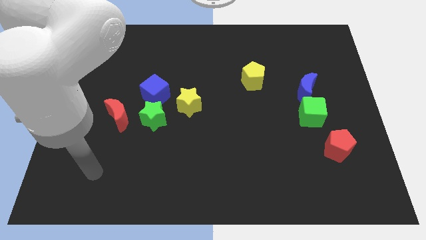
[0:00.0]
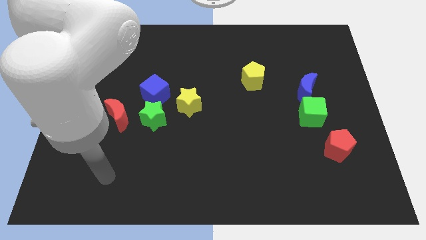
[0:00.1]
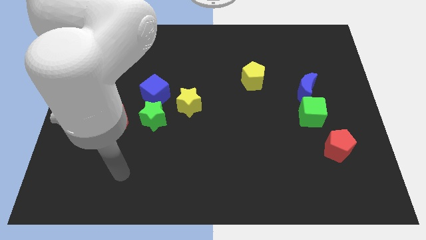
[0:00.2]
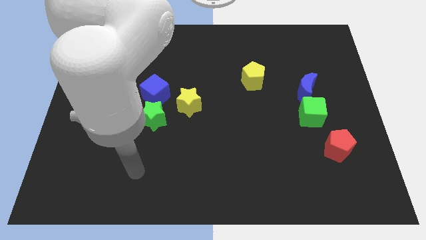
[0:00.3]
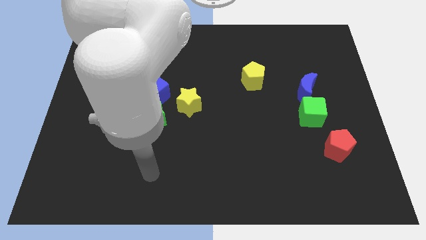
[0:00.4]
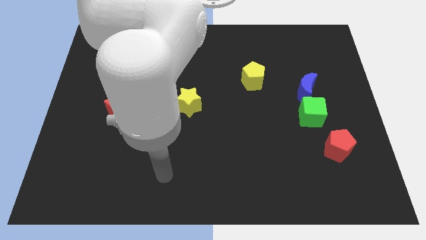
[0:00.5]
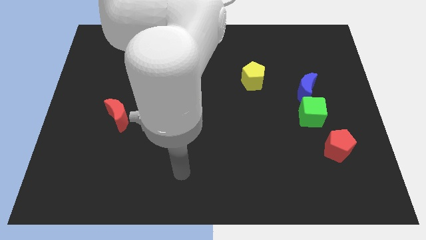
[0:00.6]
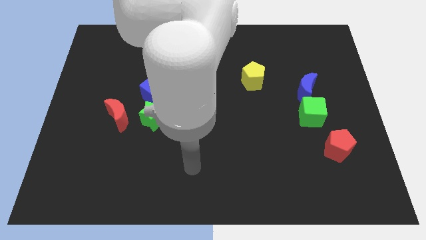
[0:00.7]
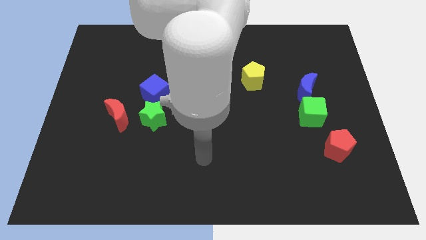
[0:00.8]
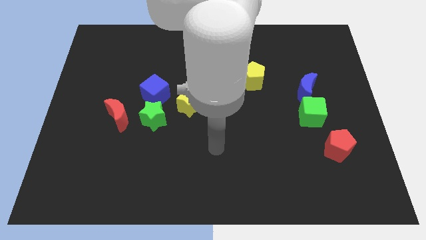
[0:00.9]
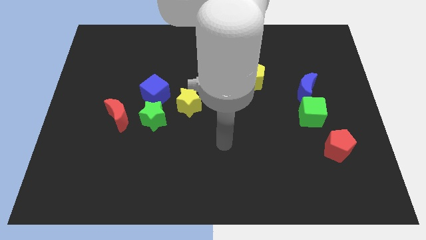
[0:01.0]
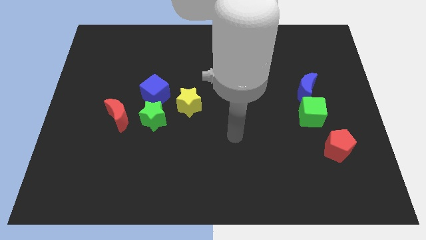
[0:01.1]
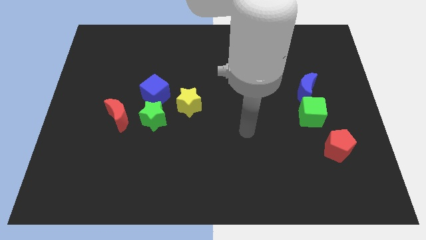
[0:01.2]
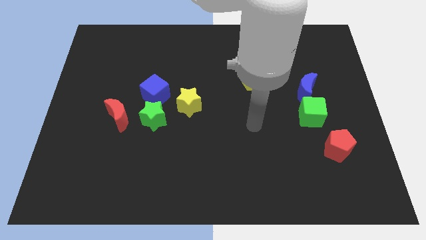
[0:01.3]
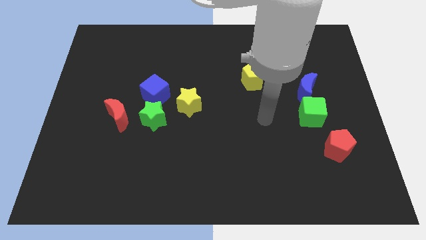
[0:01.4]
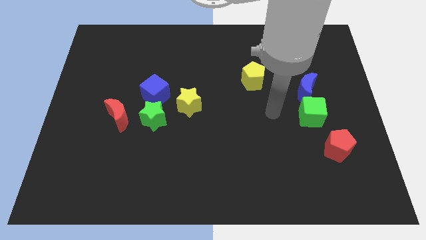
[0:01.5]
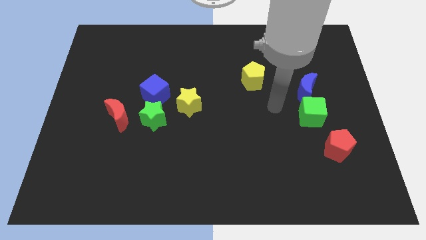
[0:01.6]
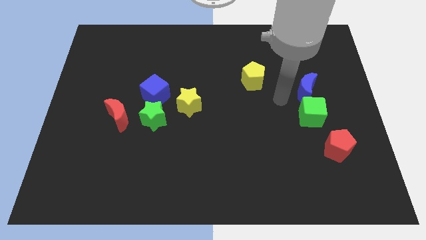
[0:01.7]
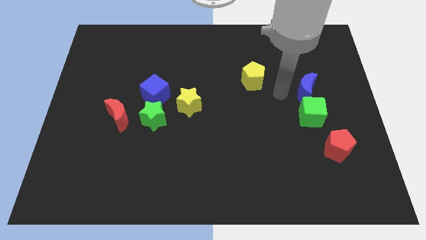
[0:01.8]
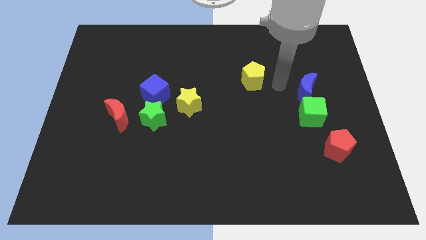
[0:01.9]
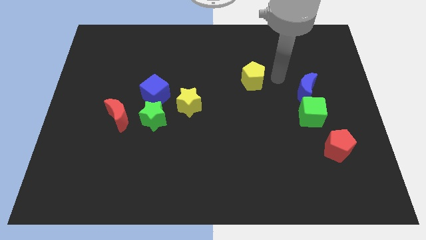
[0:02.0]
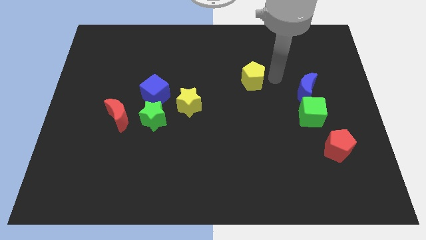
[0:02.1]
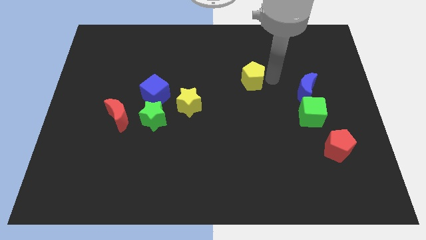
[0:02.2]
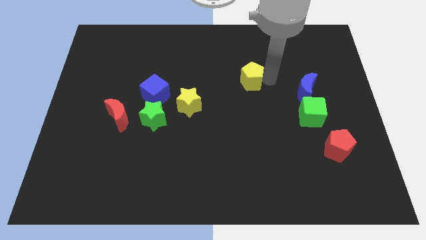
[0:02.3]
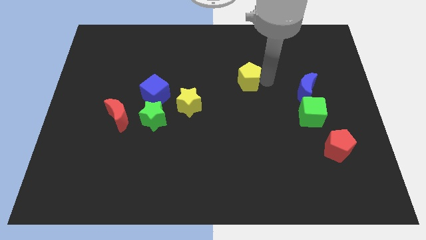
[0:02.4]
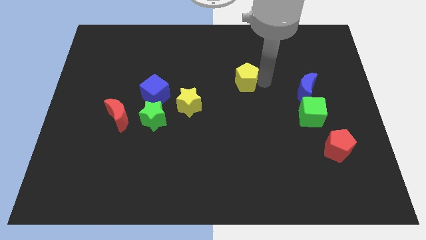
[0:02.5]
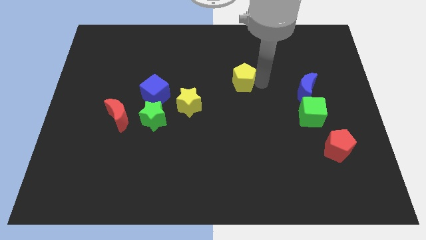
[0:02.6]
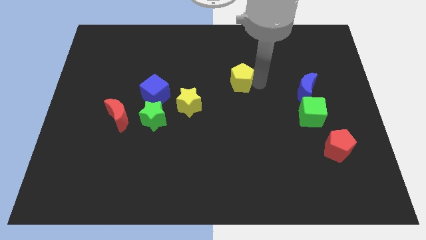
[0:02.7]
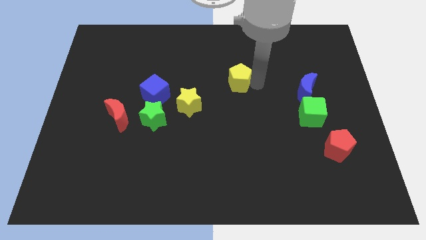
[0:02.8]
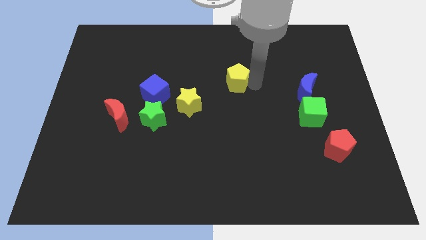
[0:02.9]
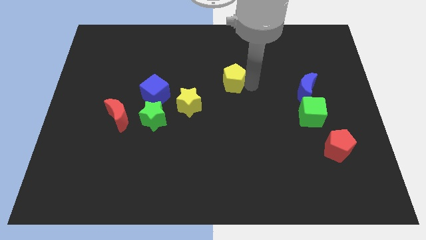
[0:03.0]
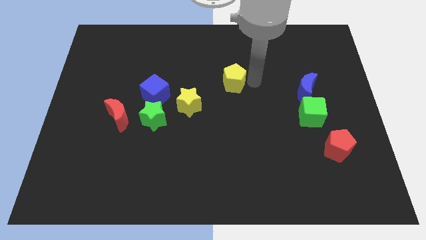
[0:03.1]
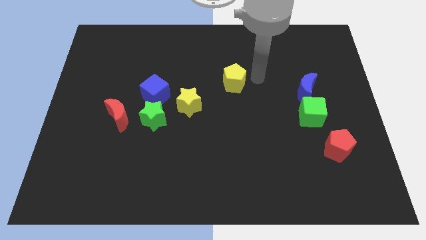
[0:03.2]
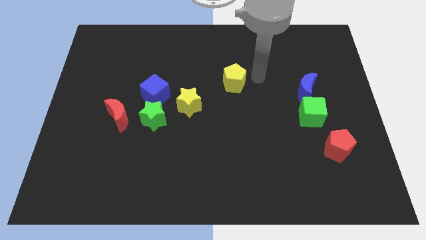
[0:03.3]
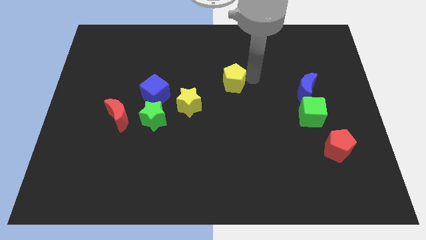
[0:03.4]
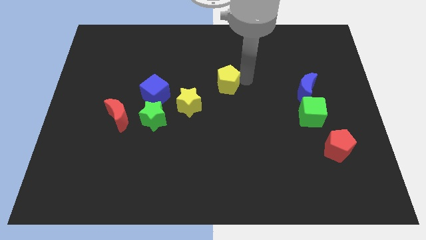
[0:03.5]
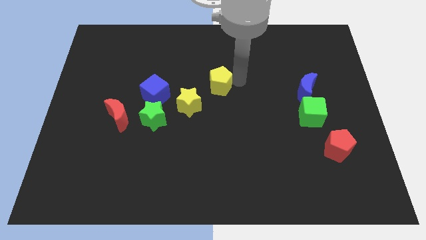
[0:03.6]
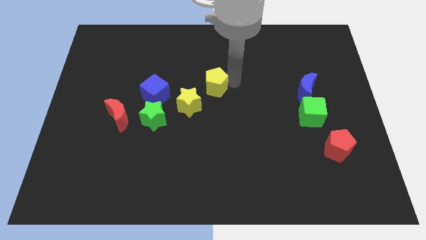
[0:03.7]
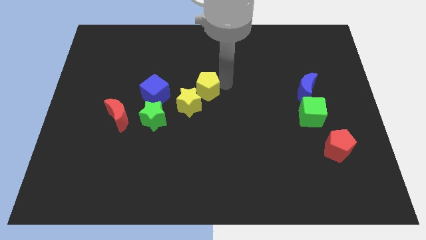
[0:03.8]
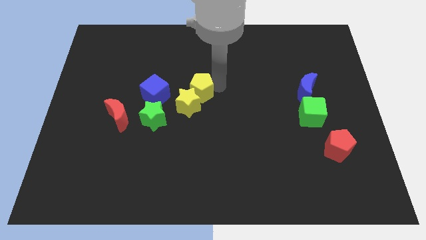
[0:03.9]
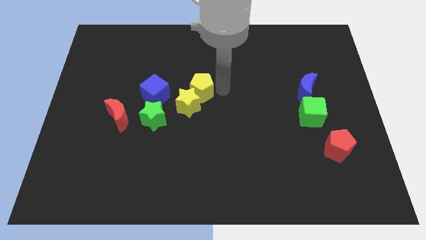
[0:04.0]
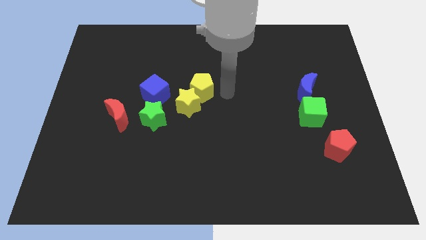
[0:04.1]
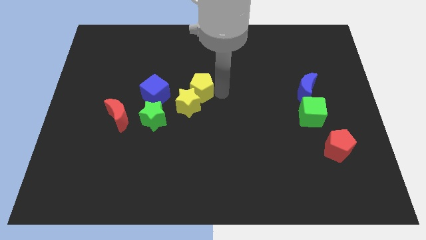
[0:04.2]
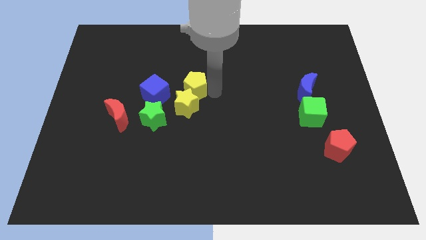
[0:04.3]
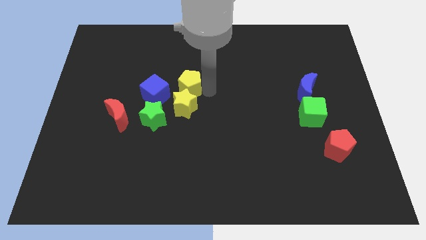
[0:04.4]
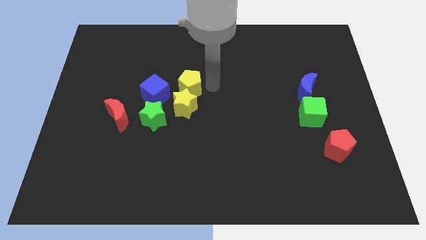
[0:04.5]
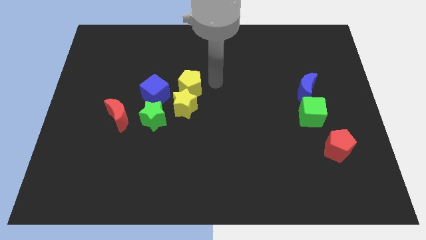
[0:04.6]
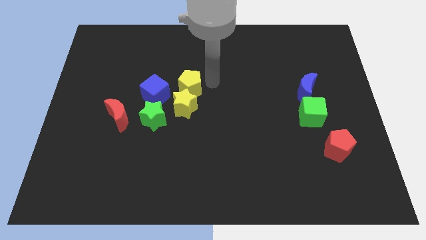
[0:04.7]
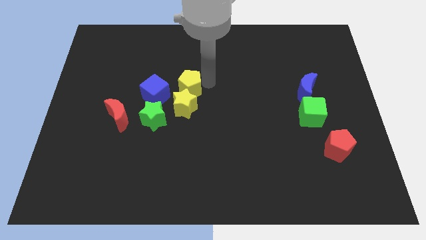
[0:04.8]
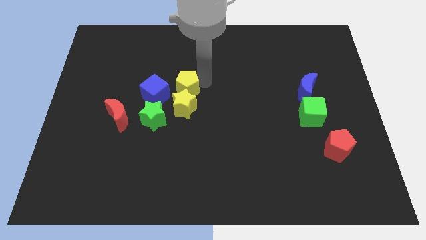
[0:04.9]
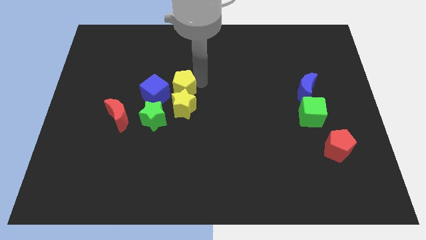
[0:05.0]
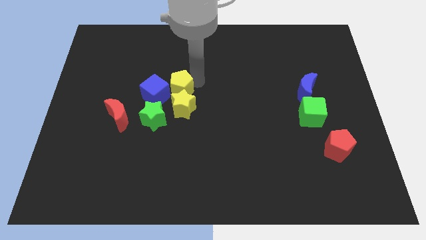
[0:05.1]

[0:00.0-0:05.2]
slide the yellow pentagon to the blue cube

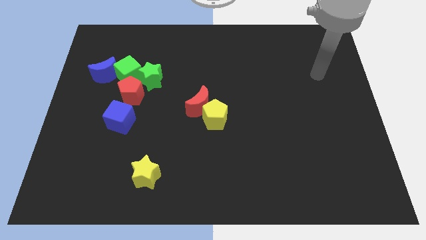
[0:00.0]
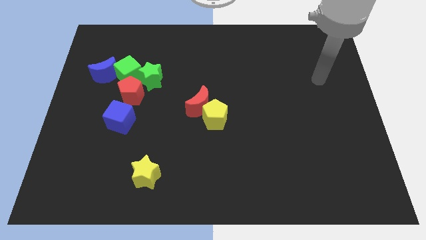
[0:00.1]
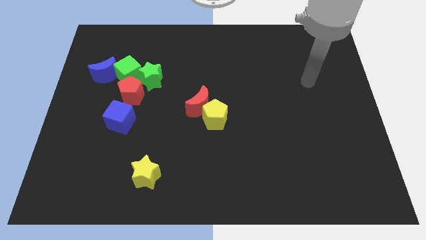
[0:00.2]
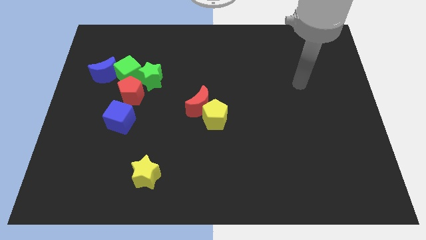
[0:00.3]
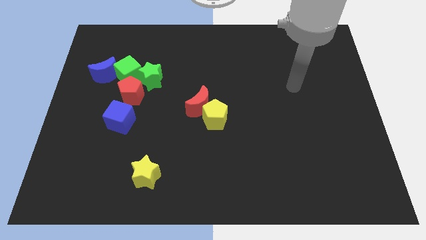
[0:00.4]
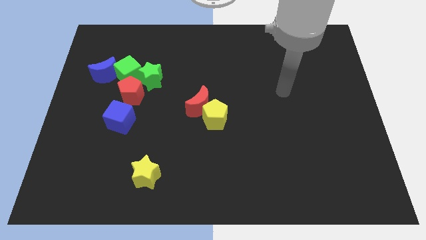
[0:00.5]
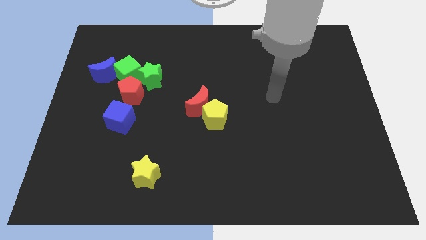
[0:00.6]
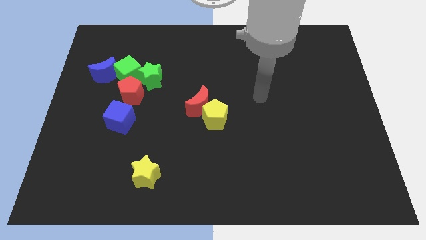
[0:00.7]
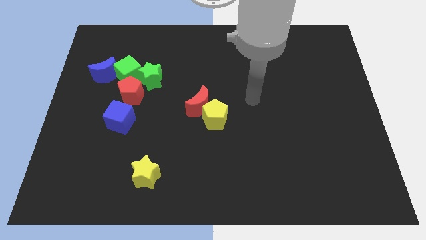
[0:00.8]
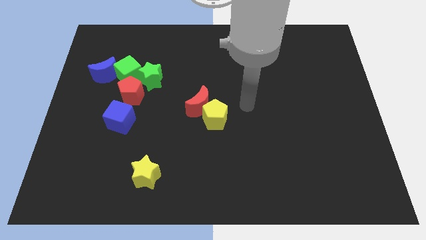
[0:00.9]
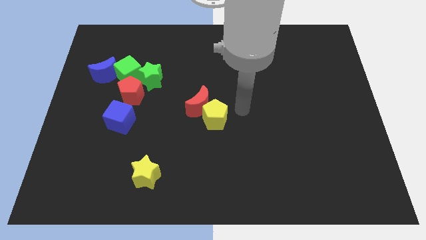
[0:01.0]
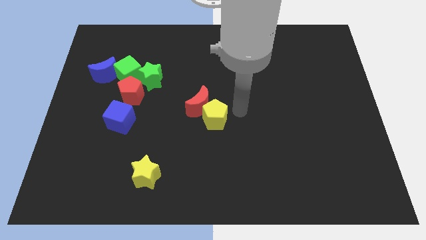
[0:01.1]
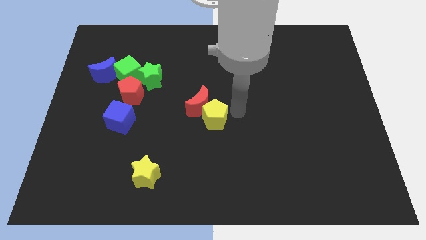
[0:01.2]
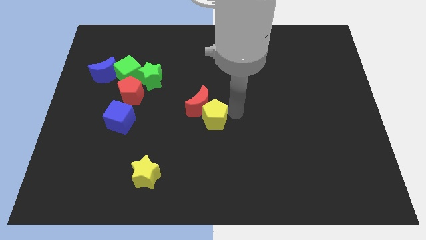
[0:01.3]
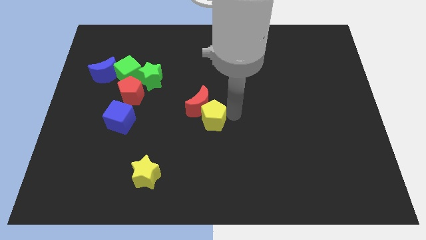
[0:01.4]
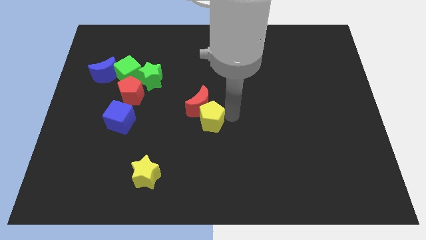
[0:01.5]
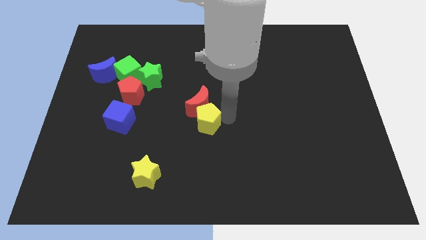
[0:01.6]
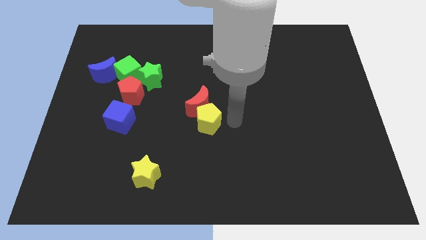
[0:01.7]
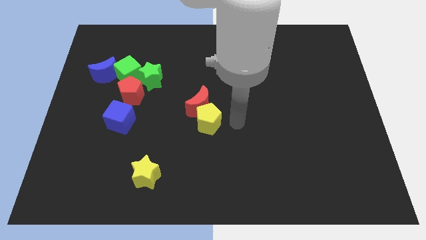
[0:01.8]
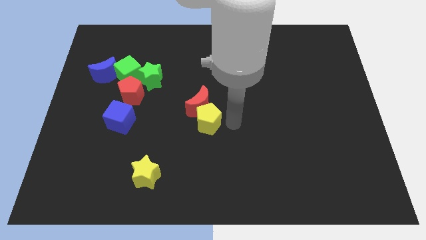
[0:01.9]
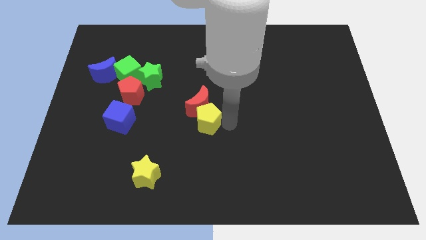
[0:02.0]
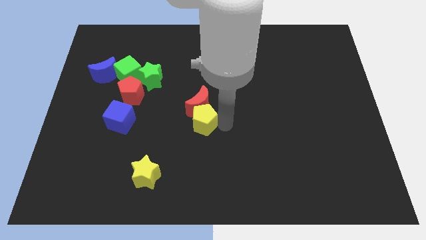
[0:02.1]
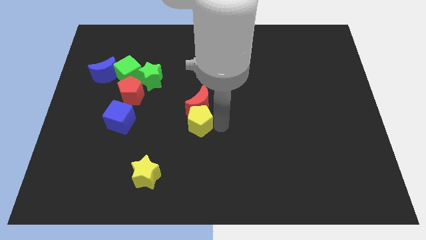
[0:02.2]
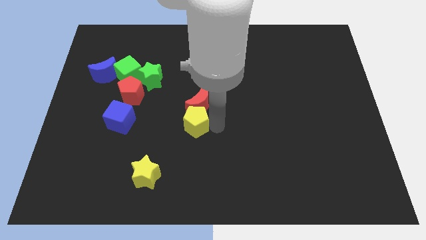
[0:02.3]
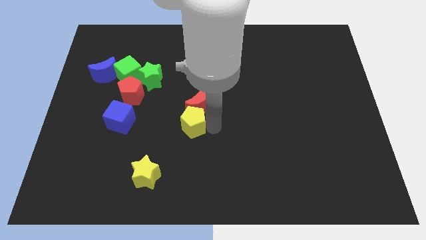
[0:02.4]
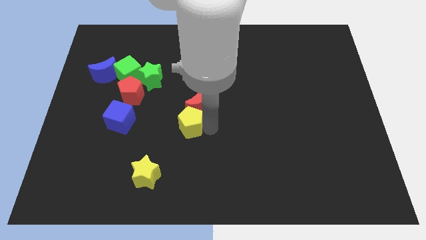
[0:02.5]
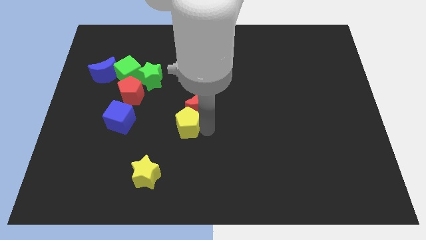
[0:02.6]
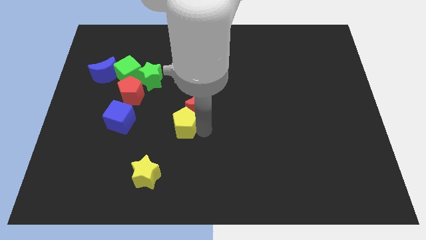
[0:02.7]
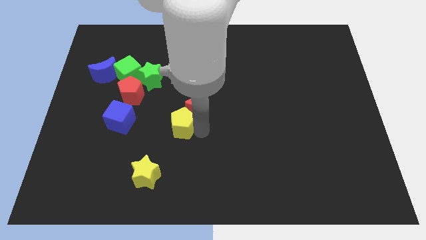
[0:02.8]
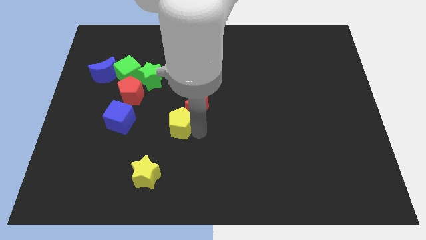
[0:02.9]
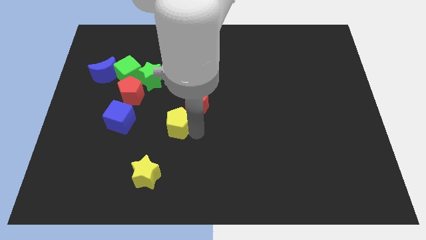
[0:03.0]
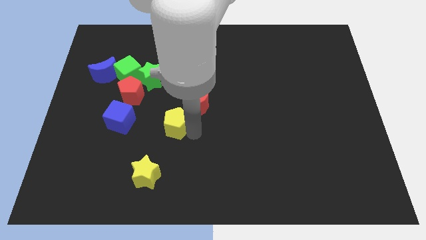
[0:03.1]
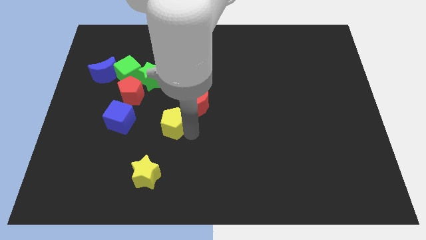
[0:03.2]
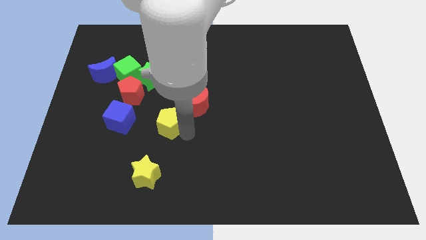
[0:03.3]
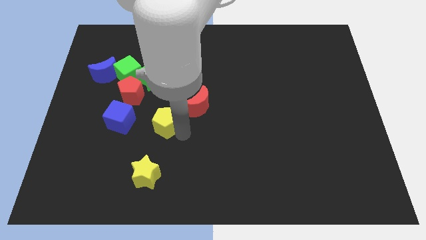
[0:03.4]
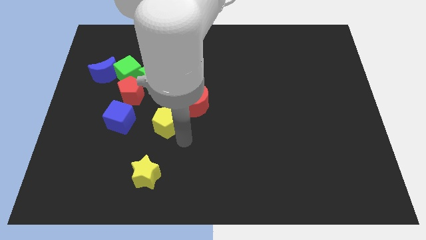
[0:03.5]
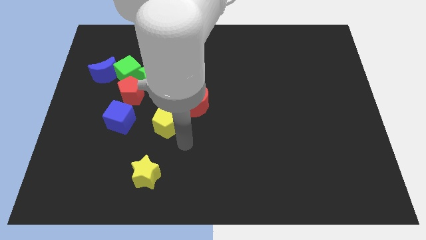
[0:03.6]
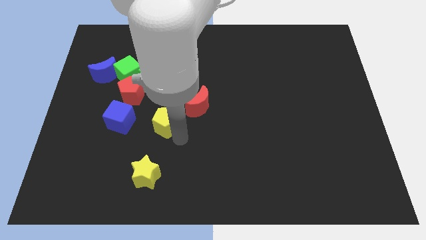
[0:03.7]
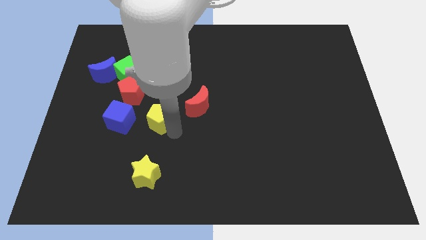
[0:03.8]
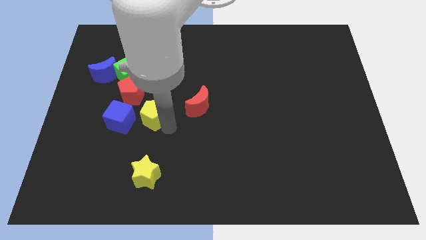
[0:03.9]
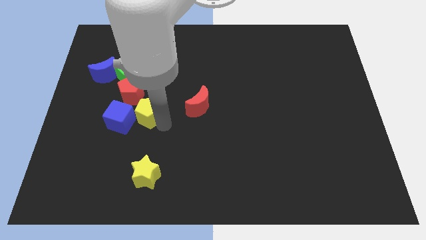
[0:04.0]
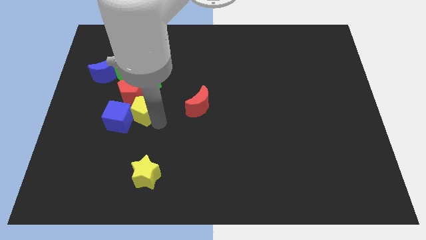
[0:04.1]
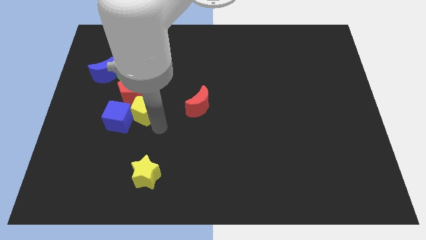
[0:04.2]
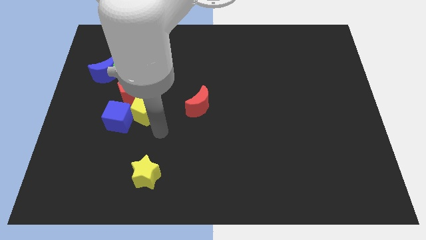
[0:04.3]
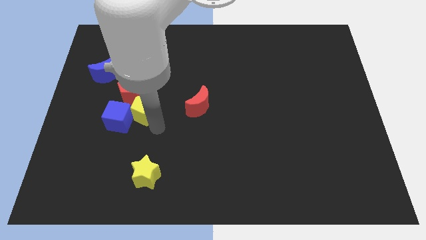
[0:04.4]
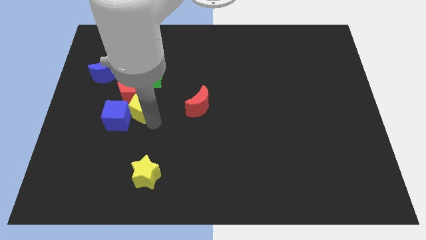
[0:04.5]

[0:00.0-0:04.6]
put the yellow pentagon close to the red pentagon
